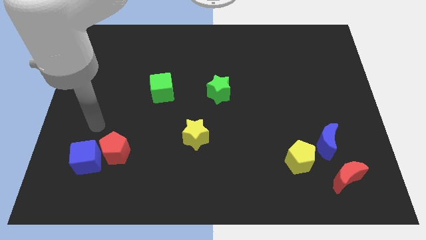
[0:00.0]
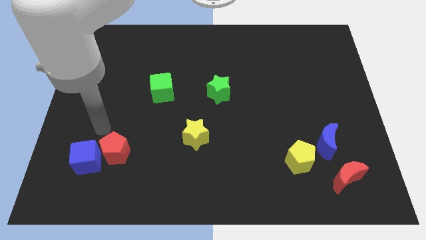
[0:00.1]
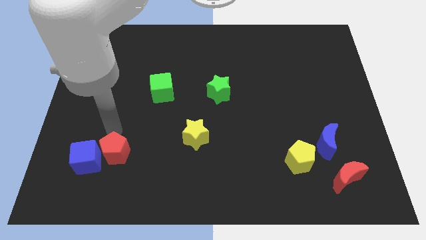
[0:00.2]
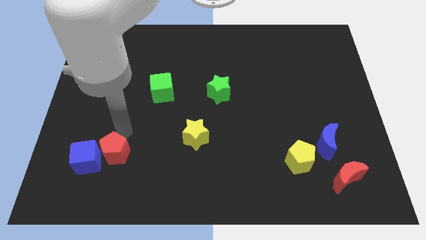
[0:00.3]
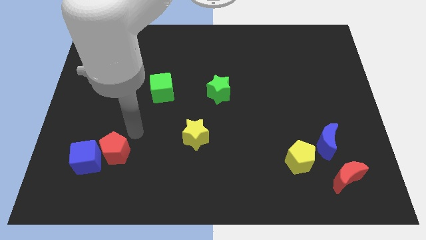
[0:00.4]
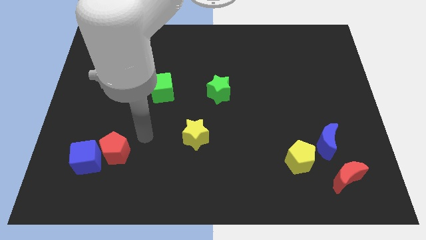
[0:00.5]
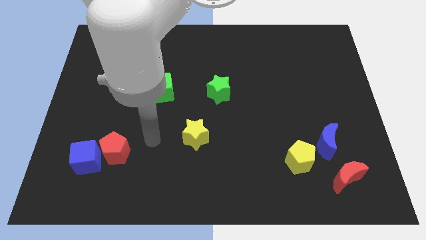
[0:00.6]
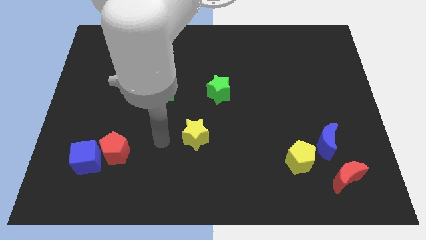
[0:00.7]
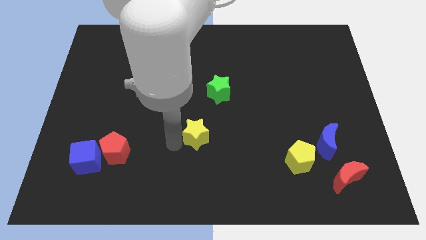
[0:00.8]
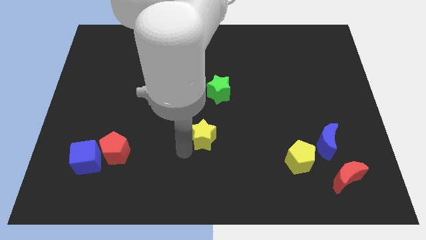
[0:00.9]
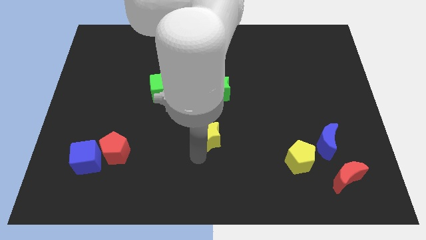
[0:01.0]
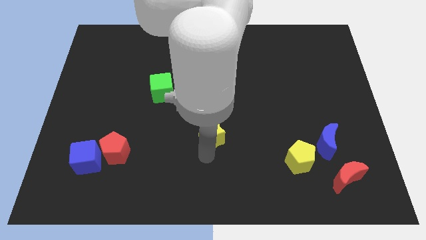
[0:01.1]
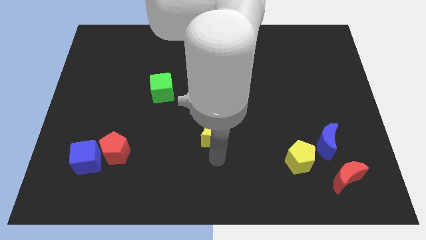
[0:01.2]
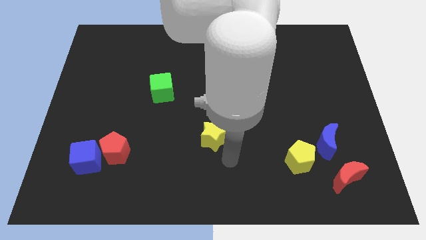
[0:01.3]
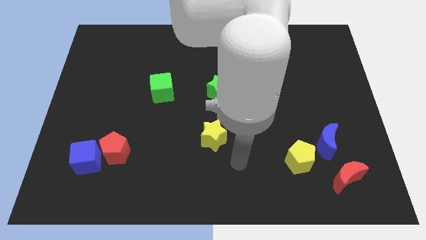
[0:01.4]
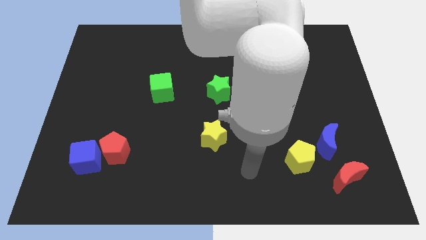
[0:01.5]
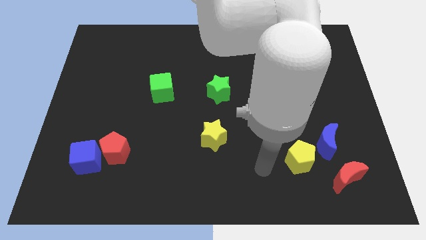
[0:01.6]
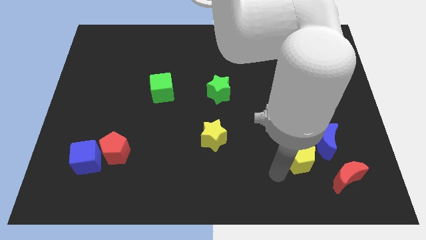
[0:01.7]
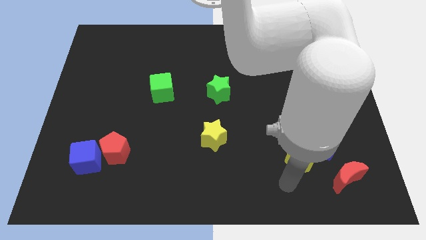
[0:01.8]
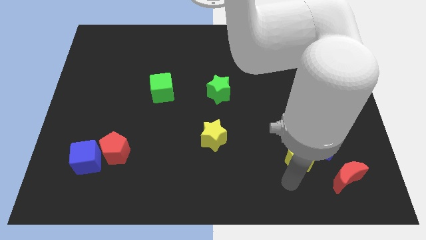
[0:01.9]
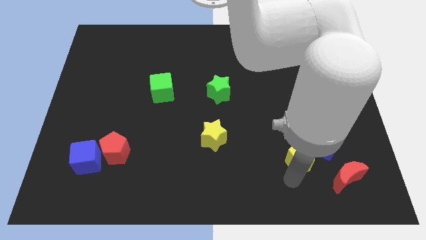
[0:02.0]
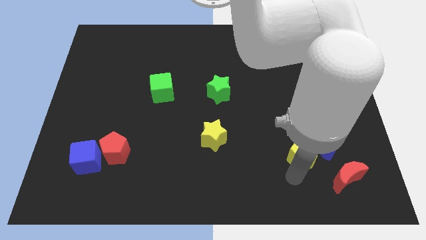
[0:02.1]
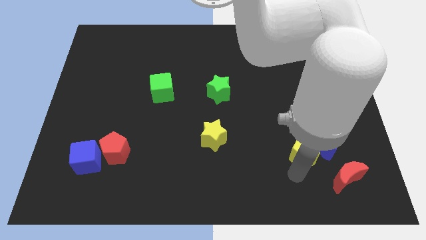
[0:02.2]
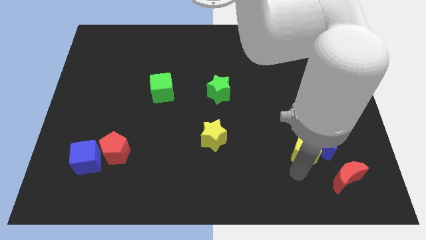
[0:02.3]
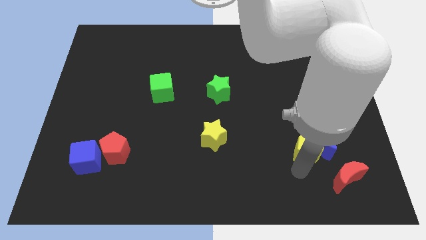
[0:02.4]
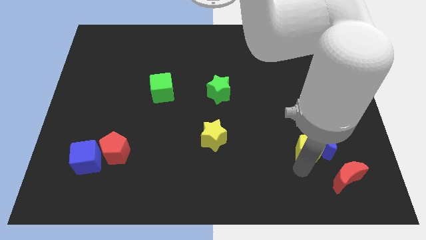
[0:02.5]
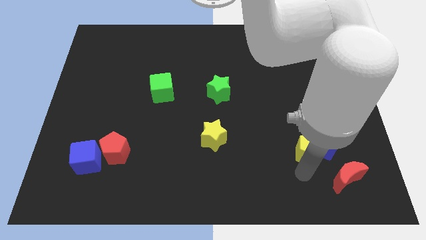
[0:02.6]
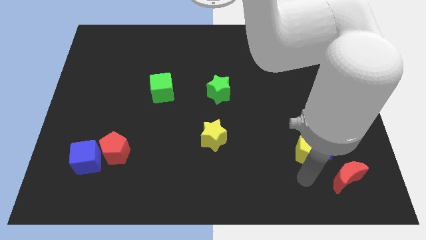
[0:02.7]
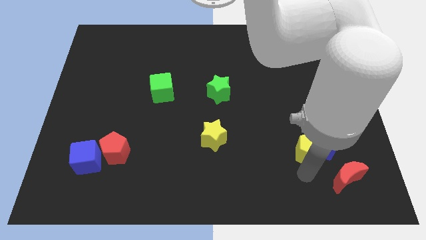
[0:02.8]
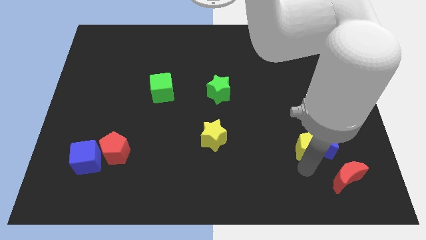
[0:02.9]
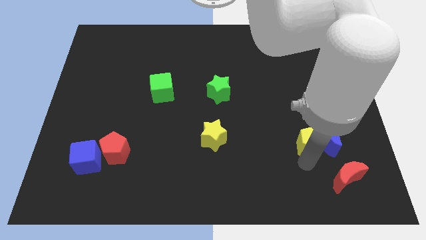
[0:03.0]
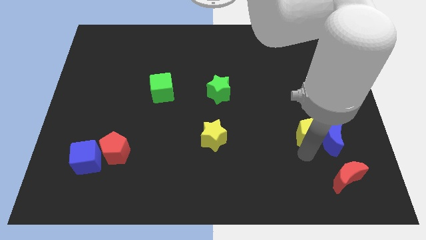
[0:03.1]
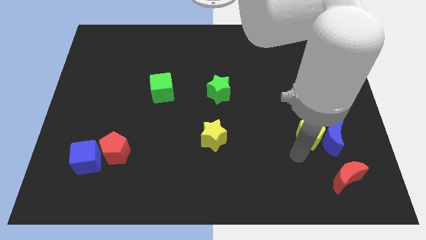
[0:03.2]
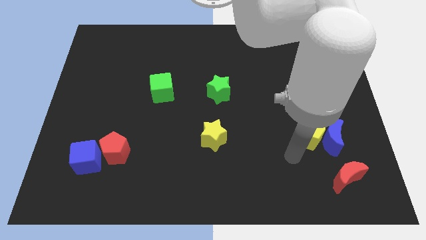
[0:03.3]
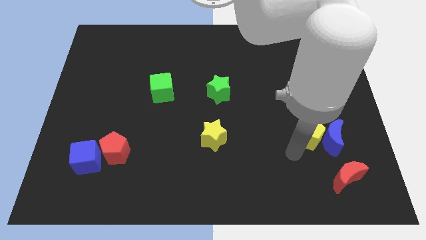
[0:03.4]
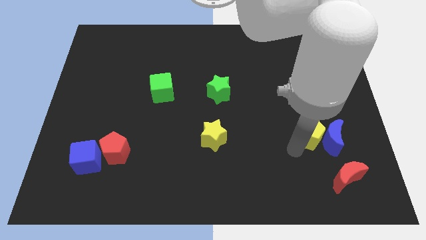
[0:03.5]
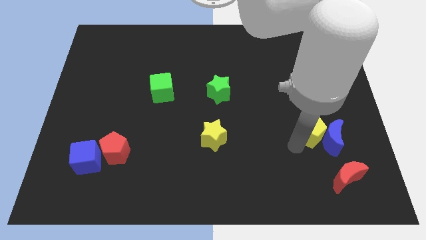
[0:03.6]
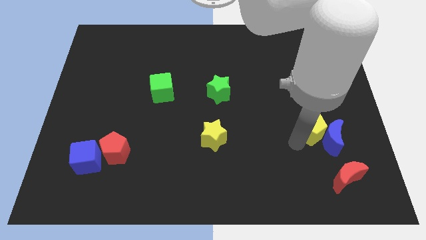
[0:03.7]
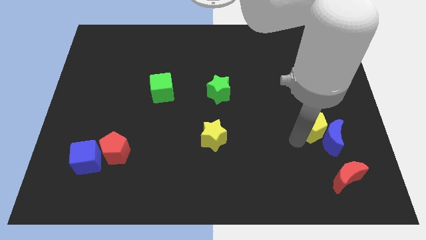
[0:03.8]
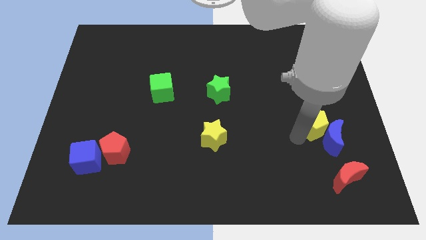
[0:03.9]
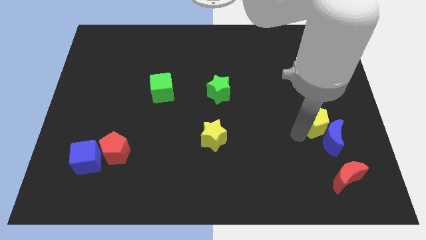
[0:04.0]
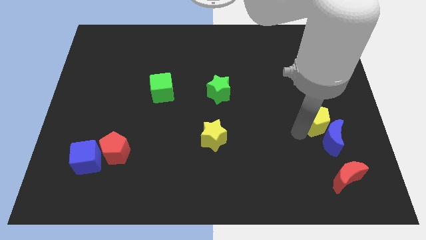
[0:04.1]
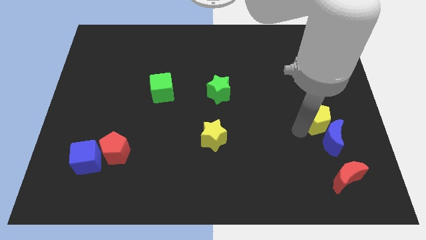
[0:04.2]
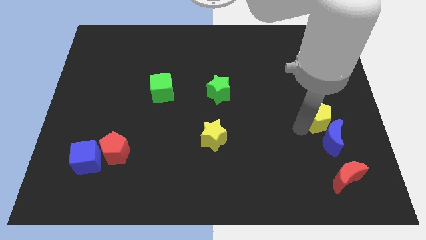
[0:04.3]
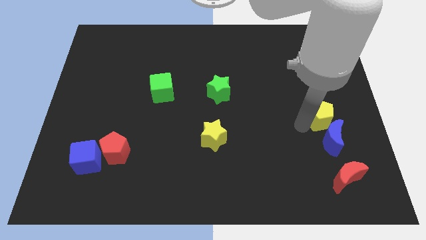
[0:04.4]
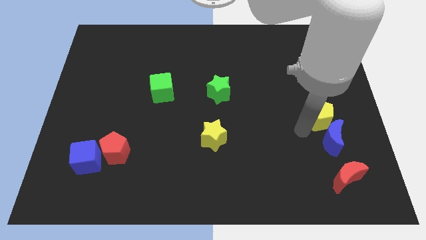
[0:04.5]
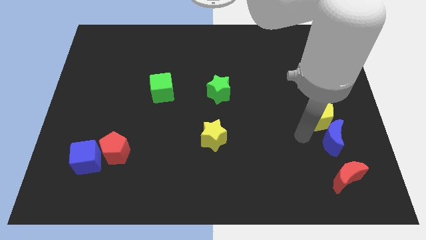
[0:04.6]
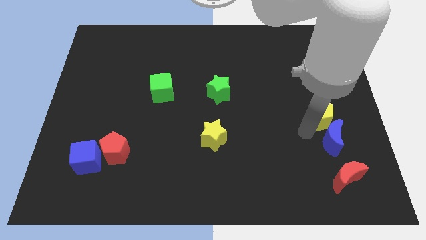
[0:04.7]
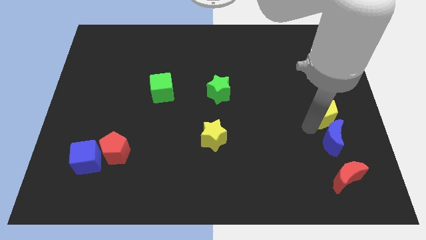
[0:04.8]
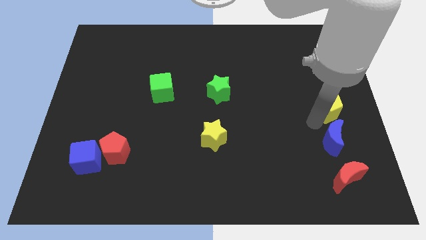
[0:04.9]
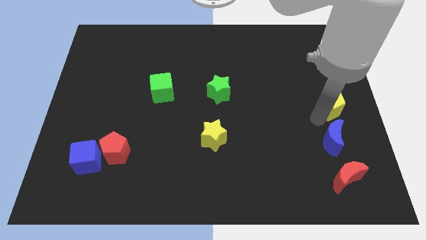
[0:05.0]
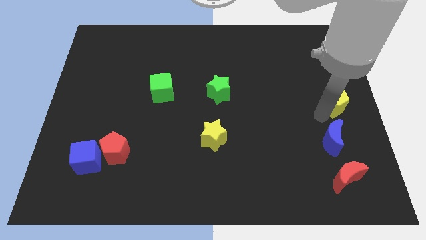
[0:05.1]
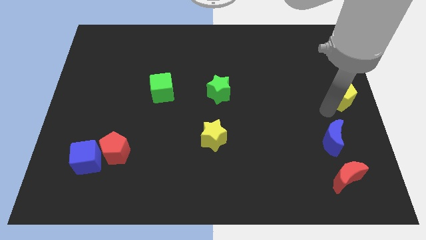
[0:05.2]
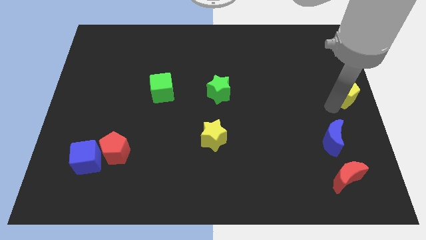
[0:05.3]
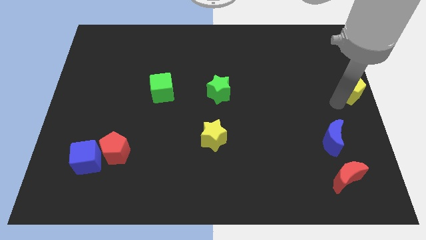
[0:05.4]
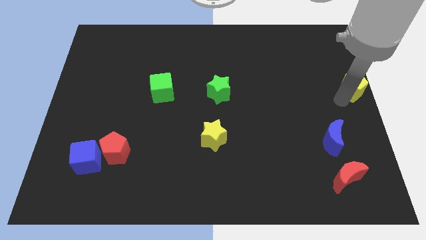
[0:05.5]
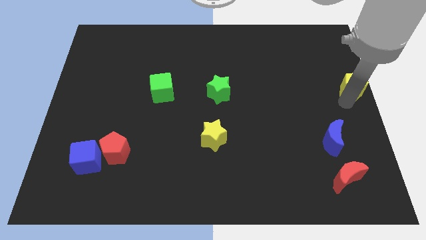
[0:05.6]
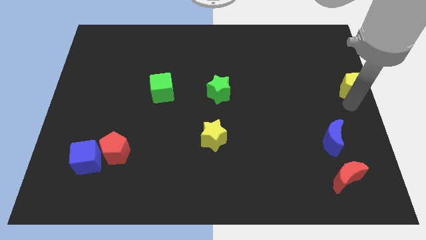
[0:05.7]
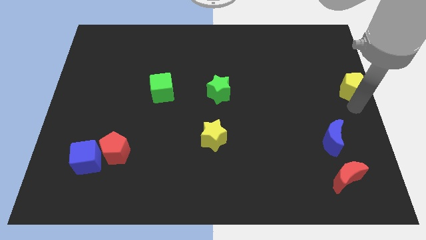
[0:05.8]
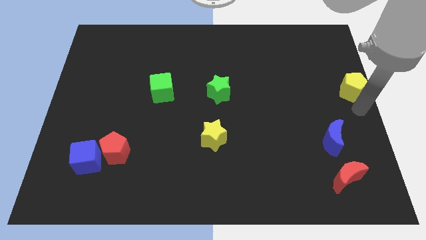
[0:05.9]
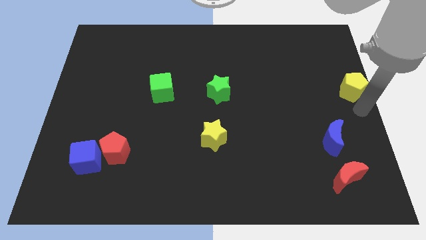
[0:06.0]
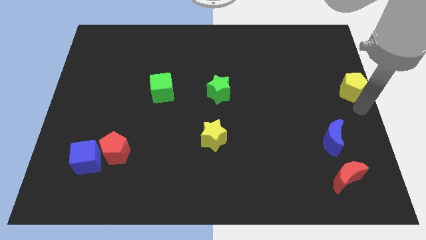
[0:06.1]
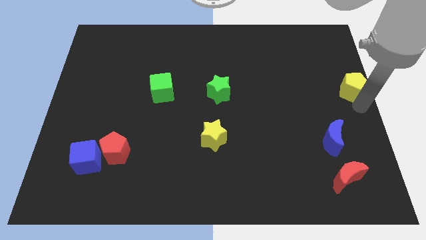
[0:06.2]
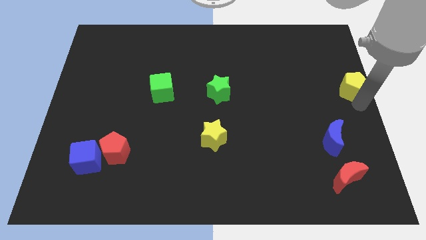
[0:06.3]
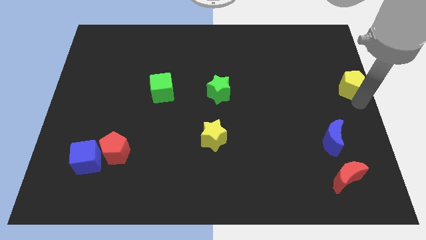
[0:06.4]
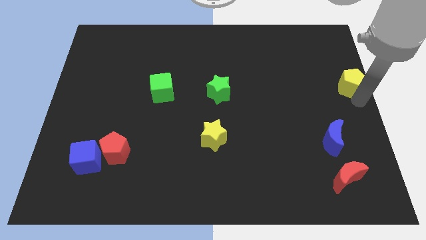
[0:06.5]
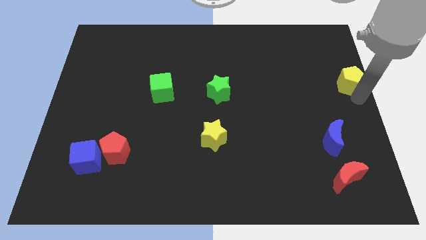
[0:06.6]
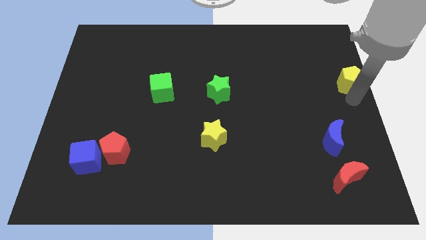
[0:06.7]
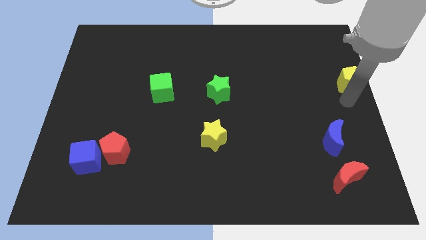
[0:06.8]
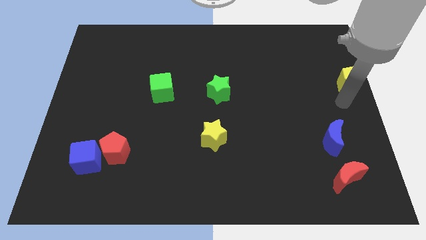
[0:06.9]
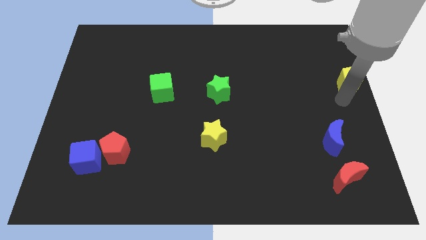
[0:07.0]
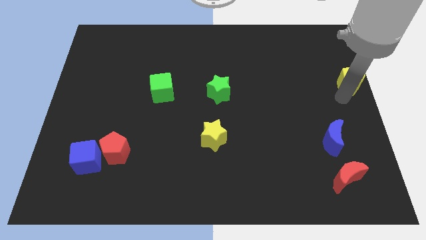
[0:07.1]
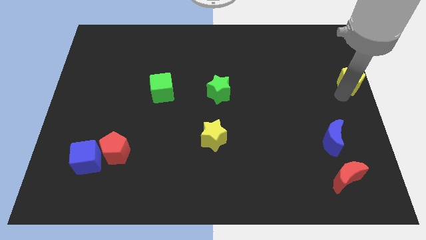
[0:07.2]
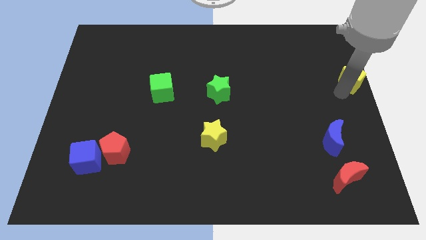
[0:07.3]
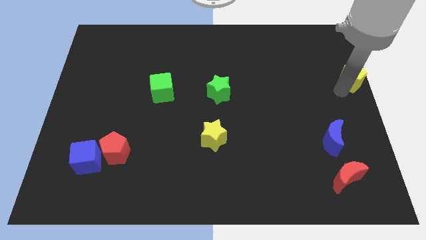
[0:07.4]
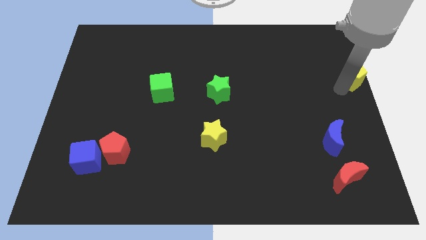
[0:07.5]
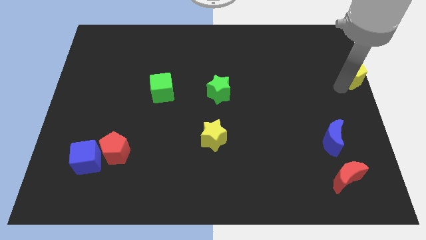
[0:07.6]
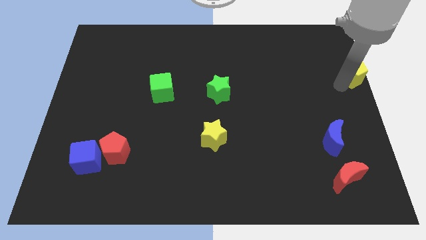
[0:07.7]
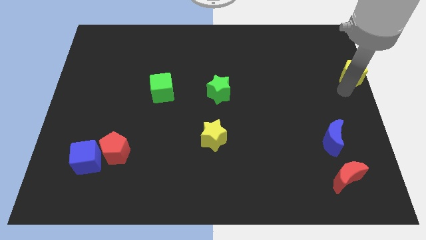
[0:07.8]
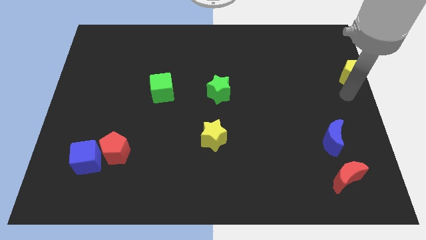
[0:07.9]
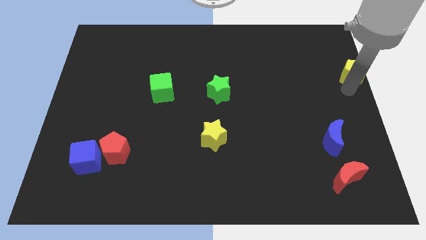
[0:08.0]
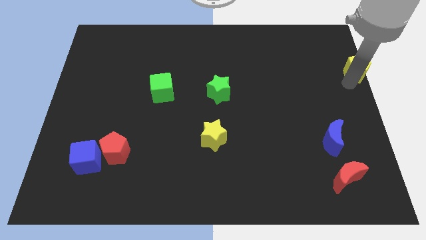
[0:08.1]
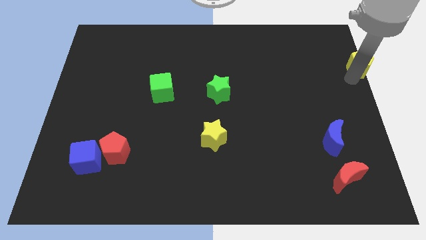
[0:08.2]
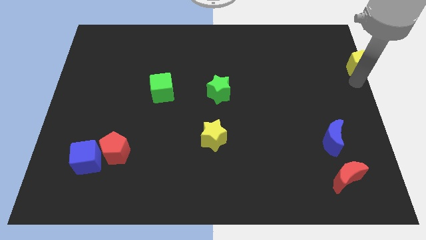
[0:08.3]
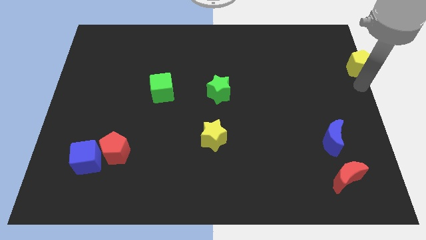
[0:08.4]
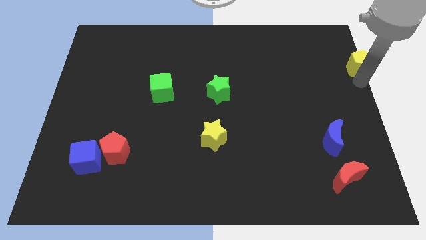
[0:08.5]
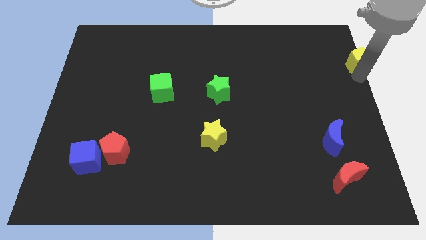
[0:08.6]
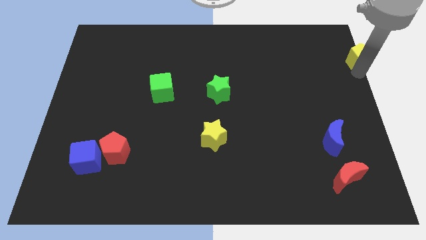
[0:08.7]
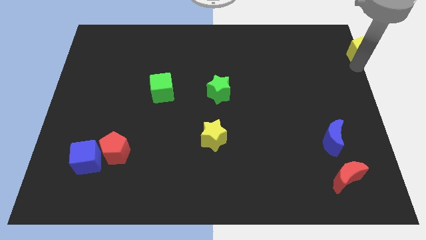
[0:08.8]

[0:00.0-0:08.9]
push the yellow pentagon to the top right corner
